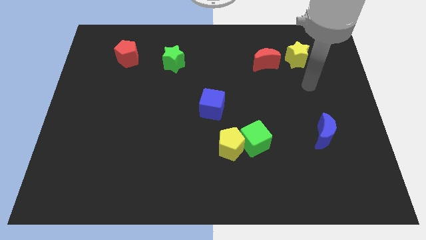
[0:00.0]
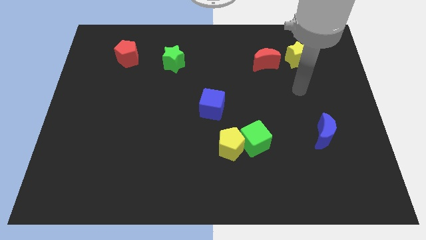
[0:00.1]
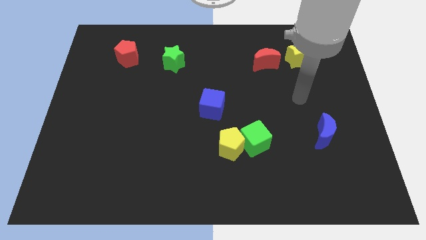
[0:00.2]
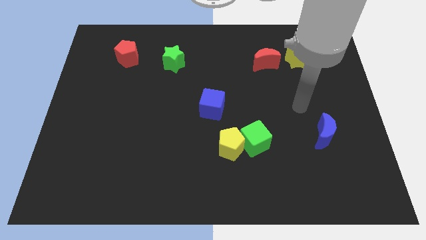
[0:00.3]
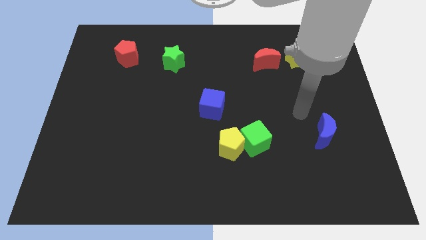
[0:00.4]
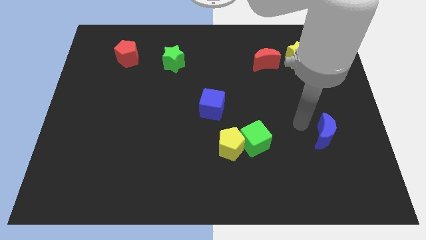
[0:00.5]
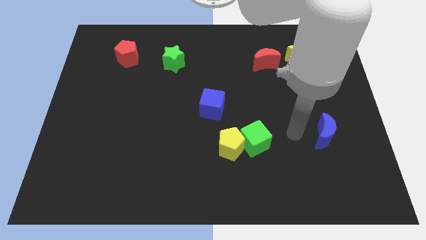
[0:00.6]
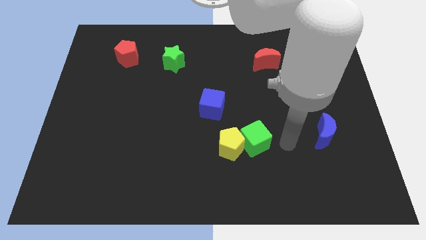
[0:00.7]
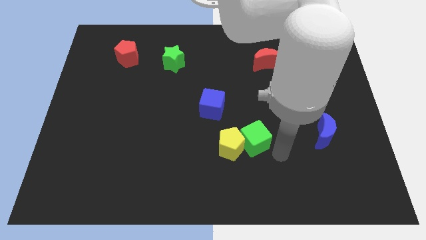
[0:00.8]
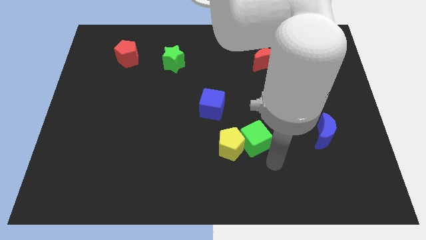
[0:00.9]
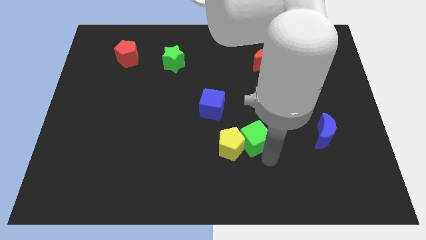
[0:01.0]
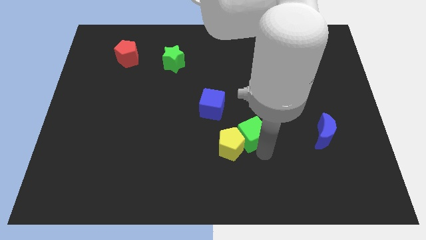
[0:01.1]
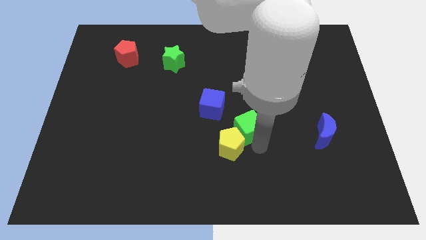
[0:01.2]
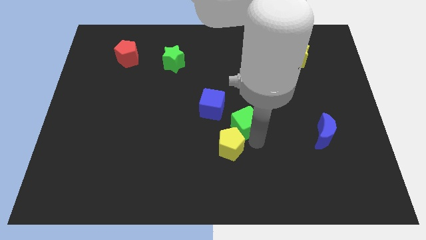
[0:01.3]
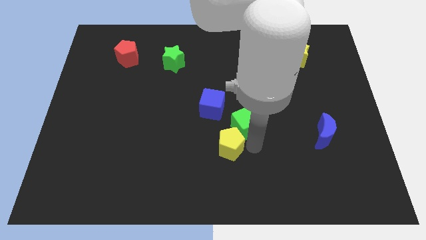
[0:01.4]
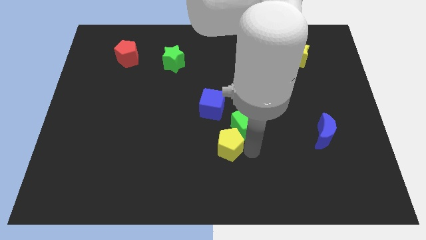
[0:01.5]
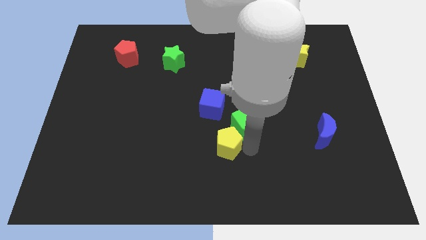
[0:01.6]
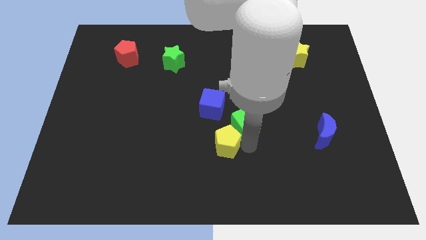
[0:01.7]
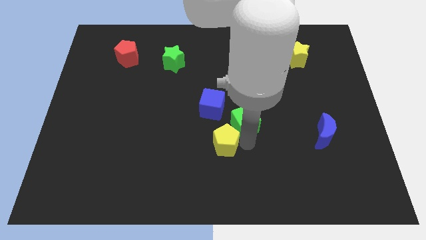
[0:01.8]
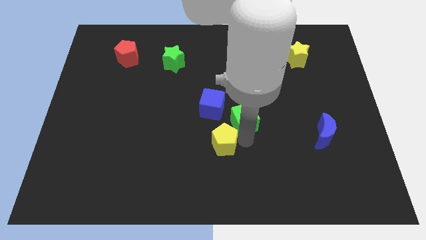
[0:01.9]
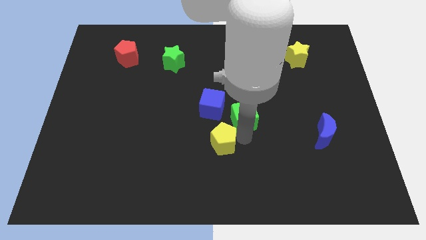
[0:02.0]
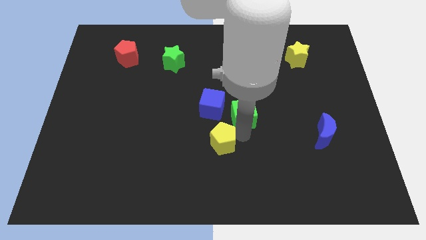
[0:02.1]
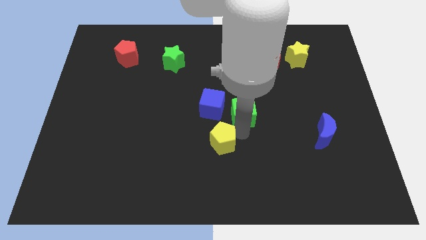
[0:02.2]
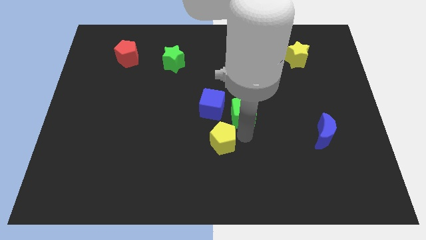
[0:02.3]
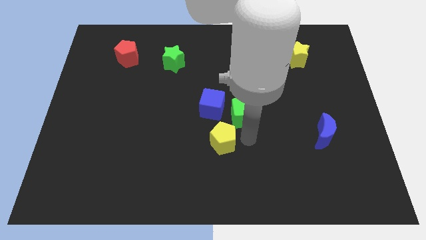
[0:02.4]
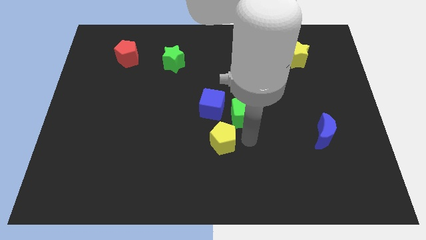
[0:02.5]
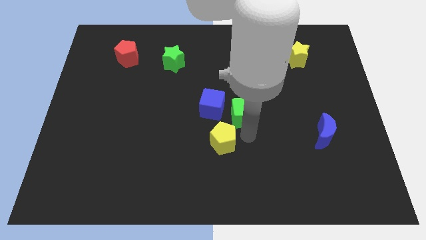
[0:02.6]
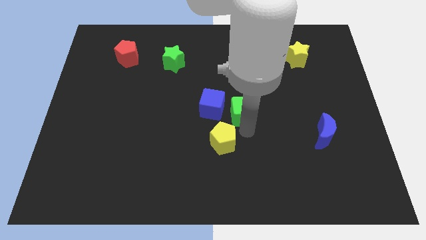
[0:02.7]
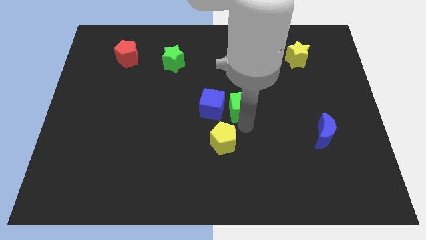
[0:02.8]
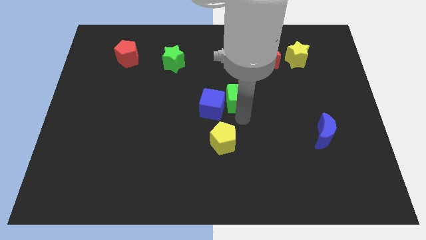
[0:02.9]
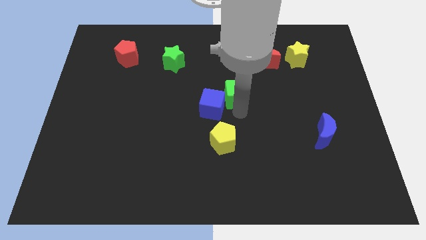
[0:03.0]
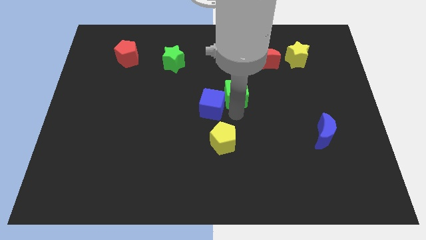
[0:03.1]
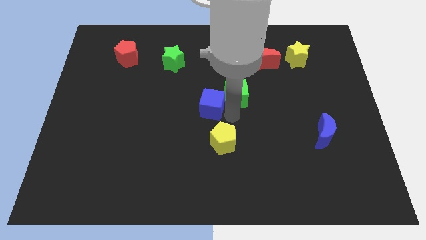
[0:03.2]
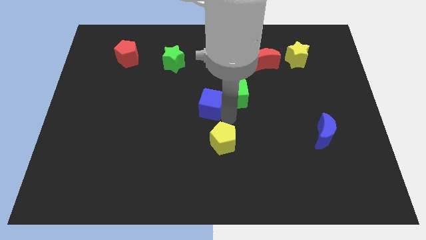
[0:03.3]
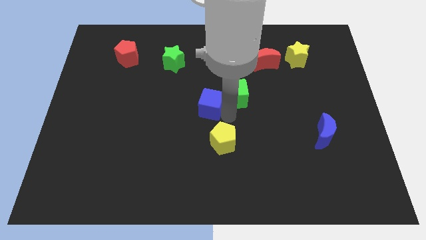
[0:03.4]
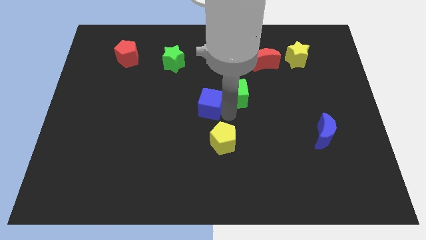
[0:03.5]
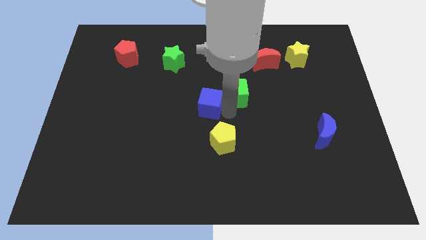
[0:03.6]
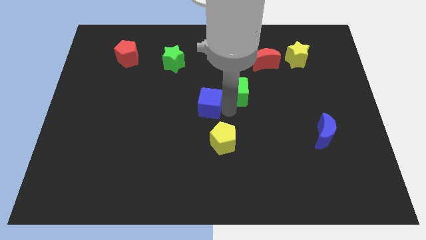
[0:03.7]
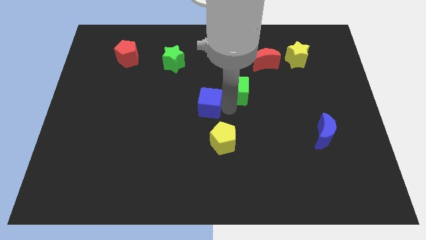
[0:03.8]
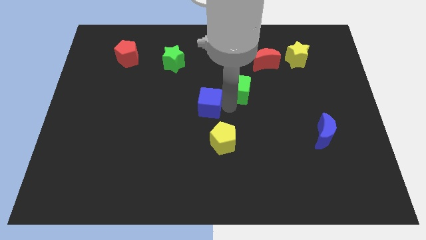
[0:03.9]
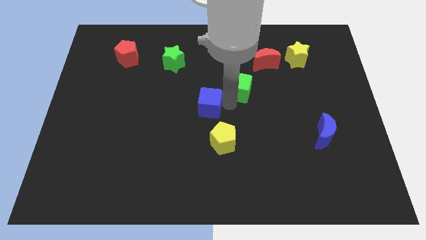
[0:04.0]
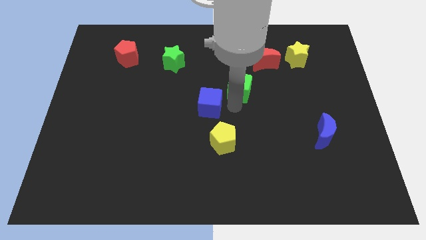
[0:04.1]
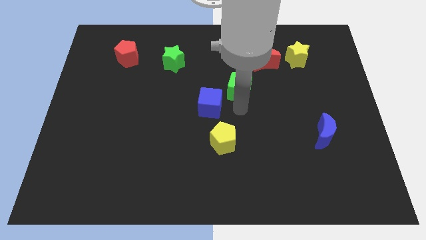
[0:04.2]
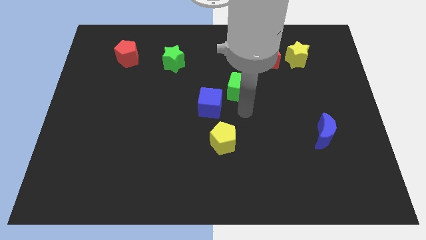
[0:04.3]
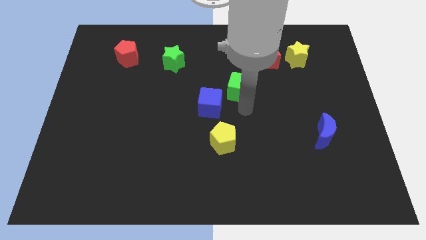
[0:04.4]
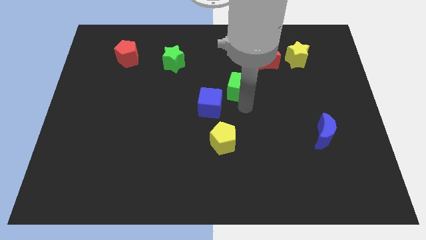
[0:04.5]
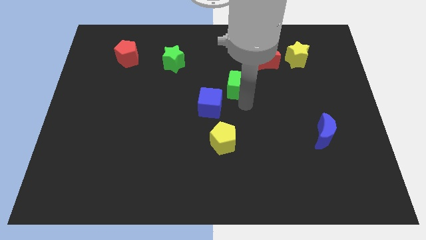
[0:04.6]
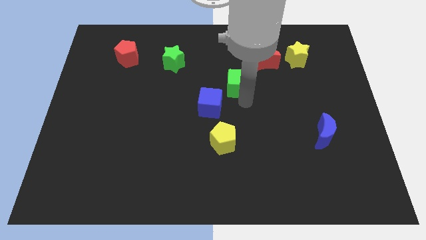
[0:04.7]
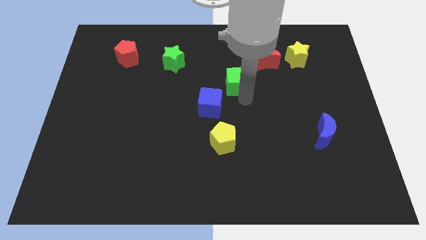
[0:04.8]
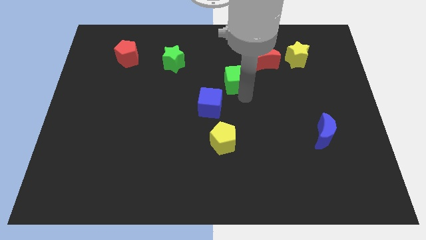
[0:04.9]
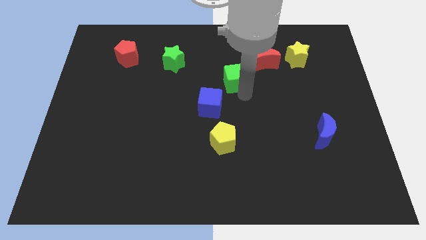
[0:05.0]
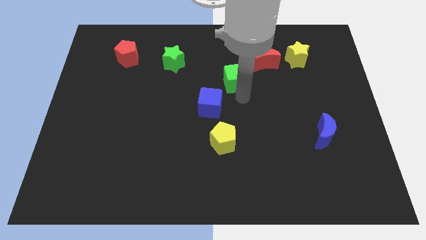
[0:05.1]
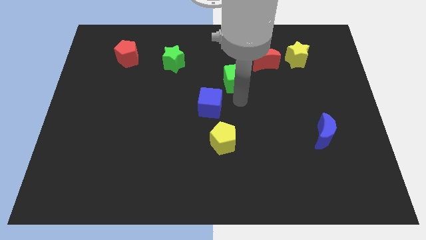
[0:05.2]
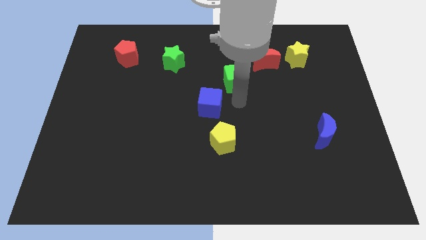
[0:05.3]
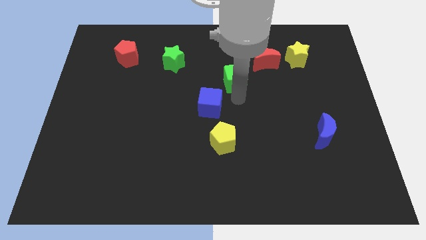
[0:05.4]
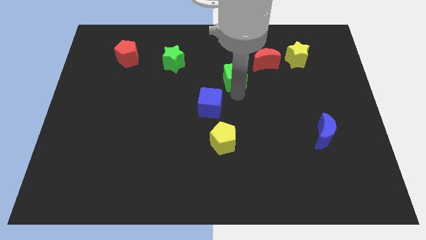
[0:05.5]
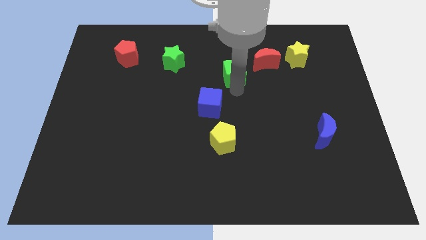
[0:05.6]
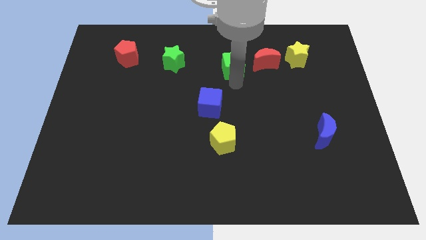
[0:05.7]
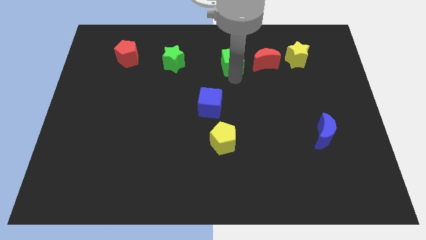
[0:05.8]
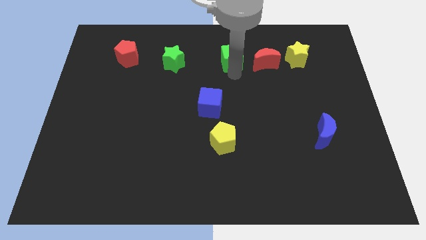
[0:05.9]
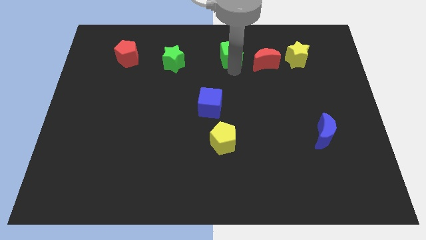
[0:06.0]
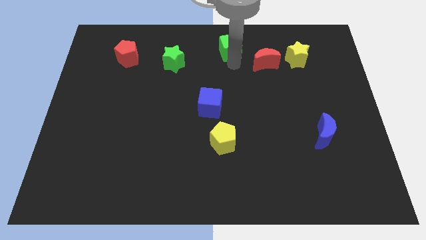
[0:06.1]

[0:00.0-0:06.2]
slide the green cube to the top side

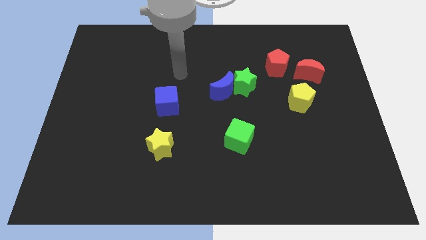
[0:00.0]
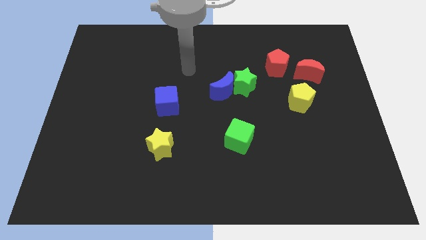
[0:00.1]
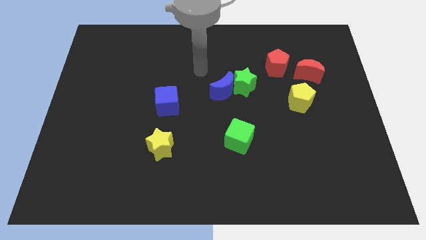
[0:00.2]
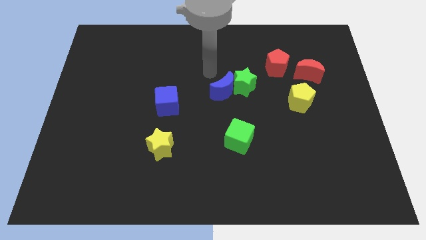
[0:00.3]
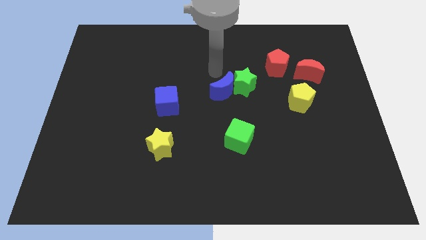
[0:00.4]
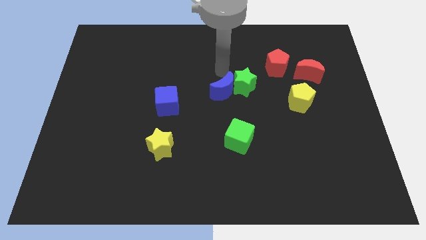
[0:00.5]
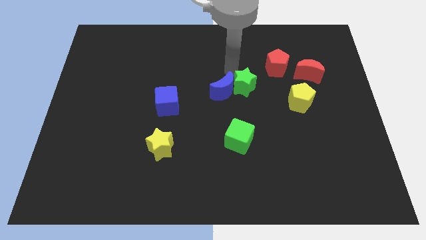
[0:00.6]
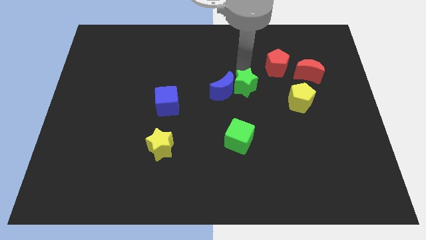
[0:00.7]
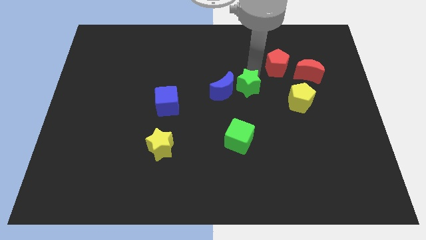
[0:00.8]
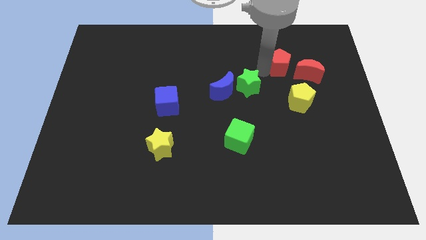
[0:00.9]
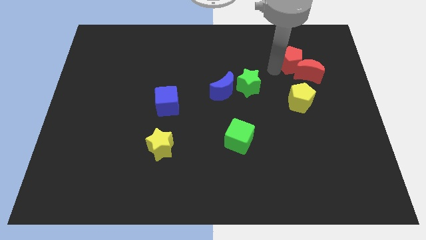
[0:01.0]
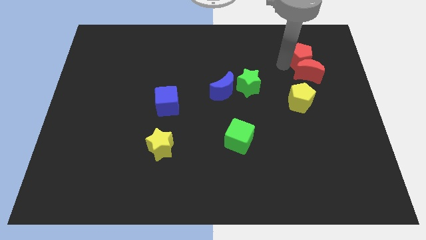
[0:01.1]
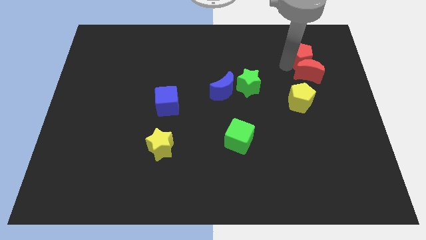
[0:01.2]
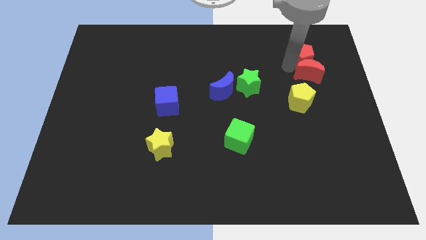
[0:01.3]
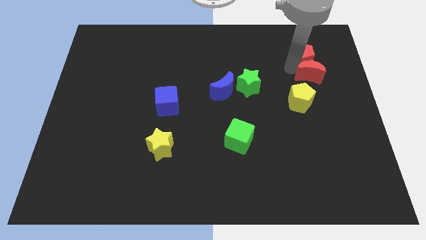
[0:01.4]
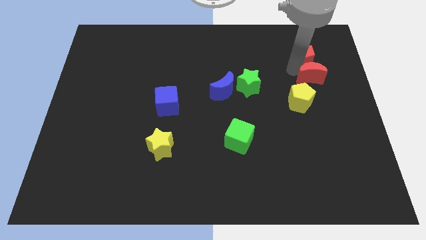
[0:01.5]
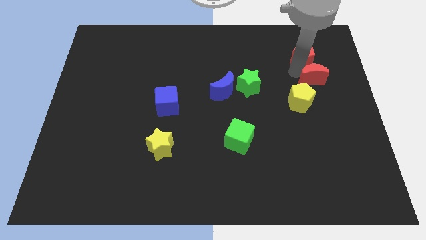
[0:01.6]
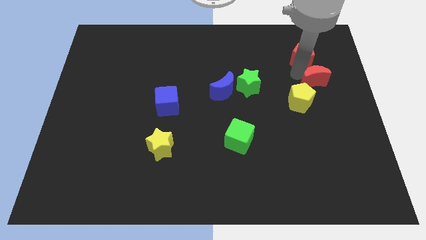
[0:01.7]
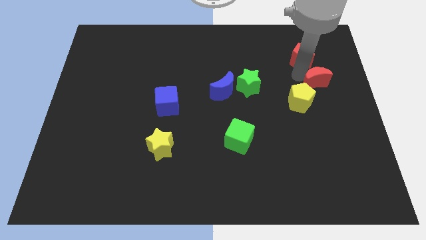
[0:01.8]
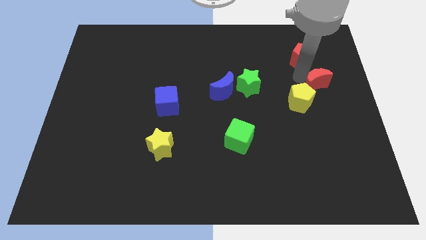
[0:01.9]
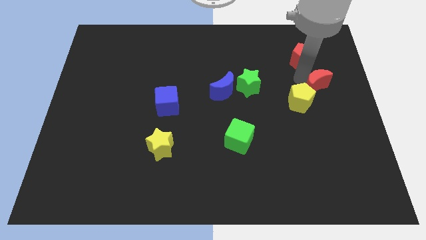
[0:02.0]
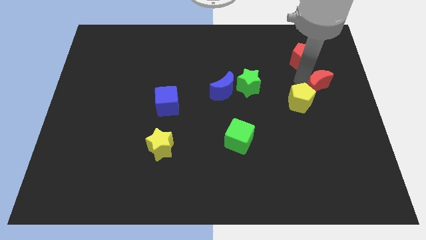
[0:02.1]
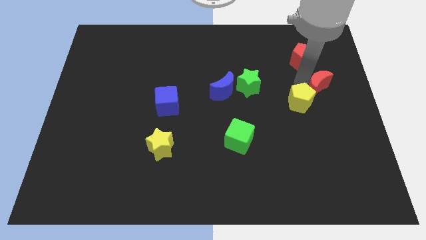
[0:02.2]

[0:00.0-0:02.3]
push the red moon to the right side
